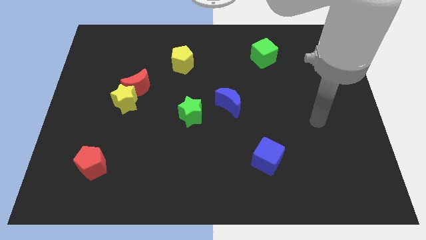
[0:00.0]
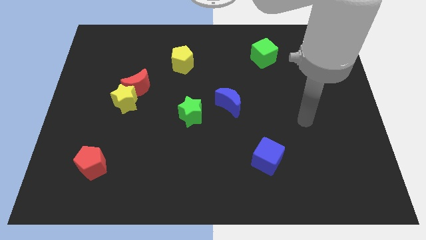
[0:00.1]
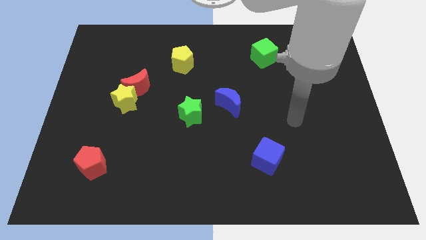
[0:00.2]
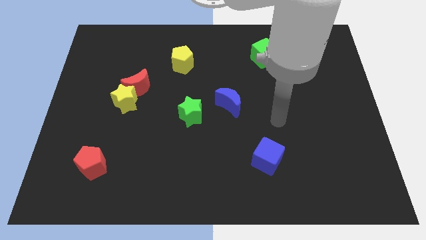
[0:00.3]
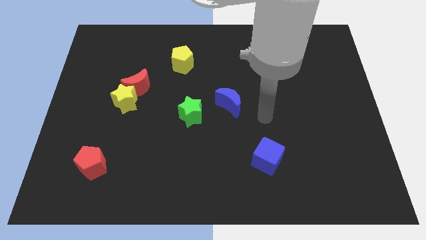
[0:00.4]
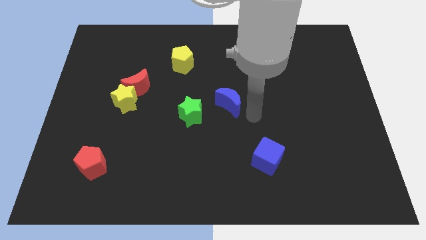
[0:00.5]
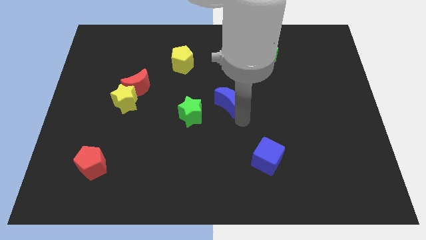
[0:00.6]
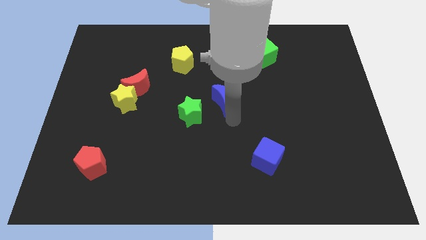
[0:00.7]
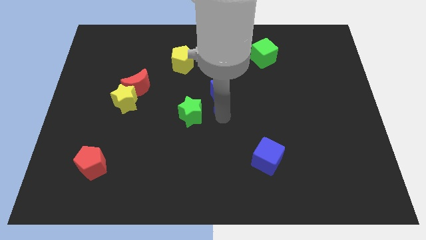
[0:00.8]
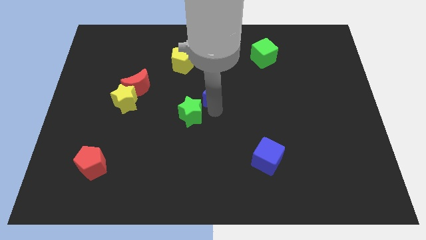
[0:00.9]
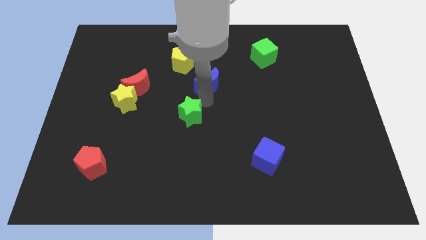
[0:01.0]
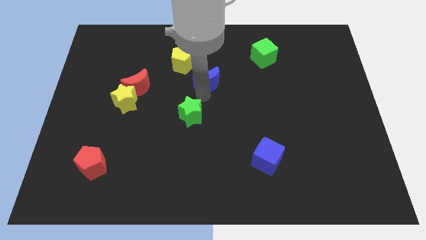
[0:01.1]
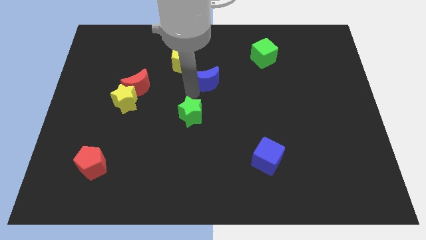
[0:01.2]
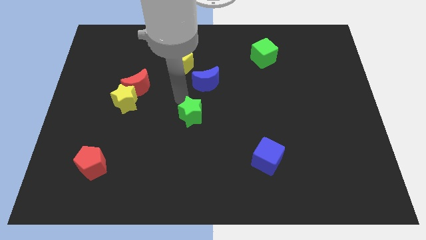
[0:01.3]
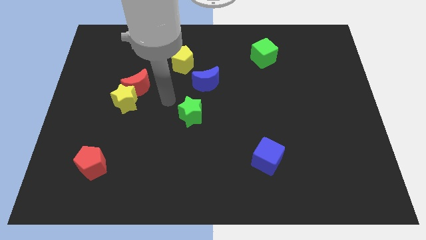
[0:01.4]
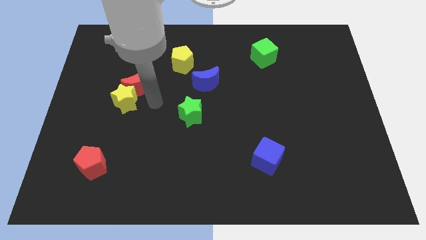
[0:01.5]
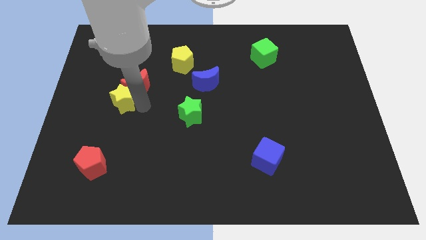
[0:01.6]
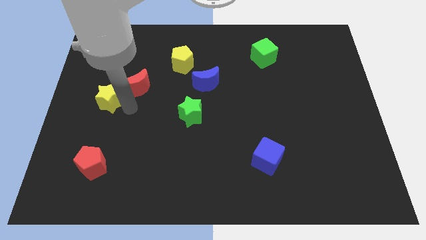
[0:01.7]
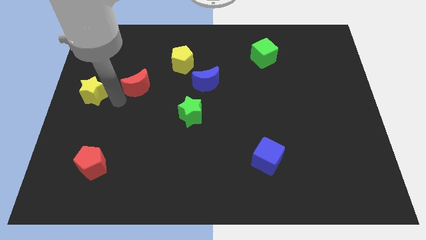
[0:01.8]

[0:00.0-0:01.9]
move the red moon away from the yellow star

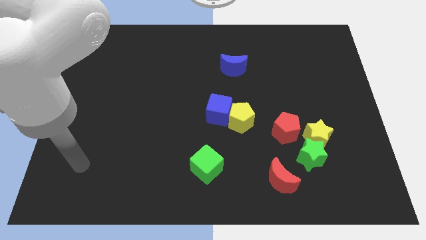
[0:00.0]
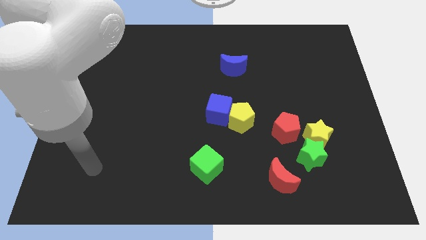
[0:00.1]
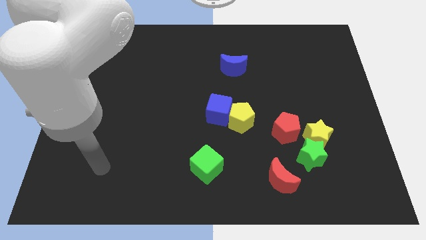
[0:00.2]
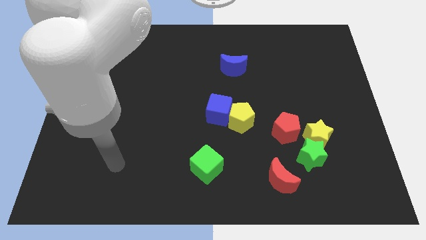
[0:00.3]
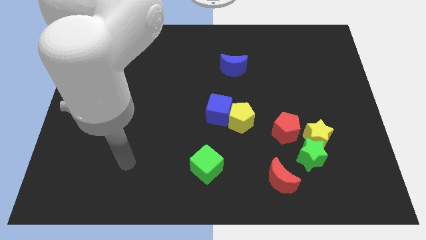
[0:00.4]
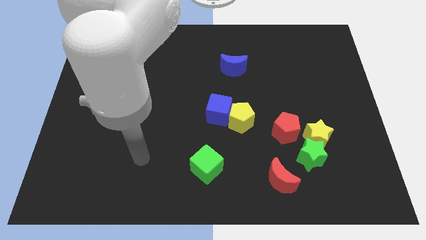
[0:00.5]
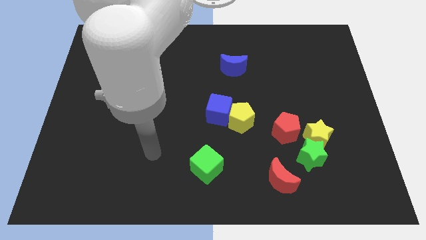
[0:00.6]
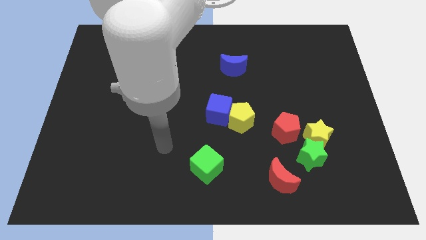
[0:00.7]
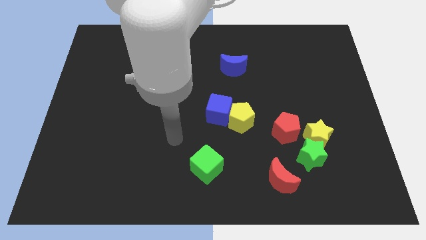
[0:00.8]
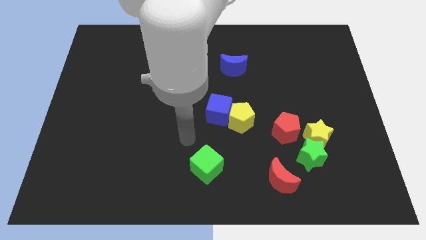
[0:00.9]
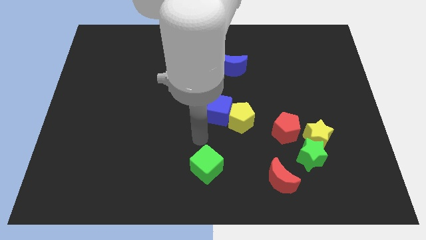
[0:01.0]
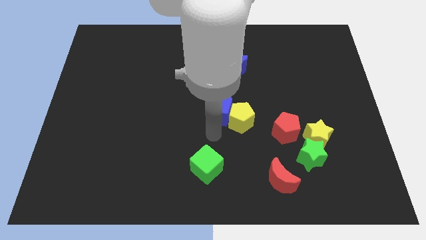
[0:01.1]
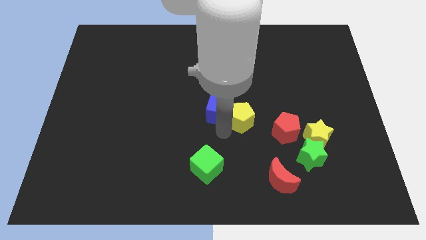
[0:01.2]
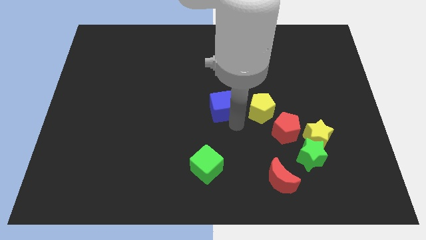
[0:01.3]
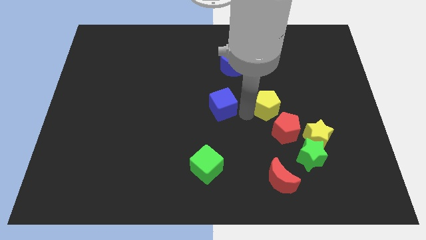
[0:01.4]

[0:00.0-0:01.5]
separate the blue cube from the yellow pentagon

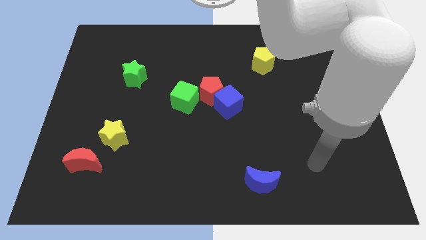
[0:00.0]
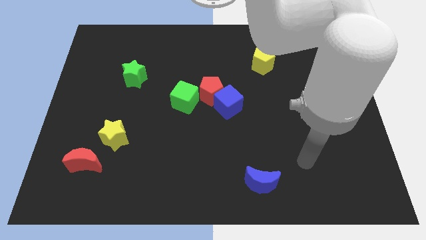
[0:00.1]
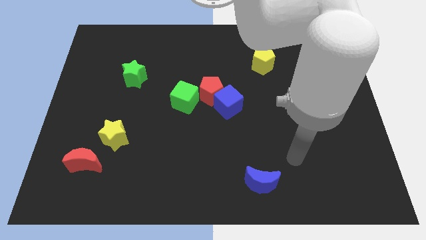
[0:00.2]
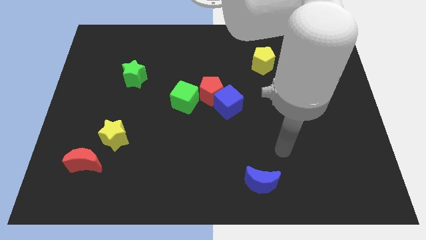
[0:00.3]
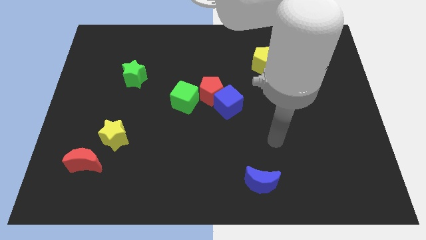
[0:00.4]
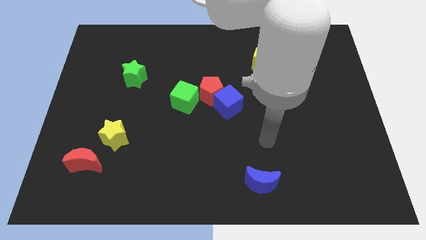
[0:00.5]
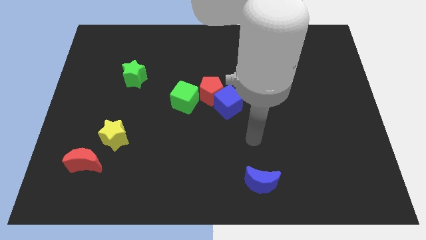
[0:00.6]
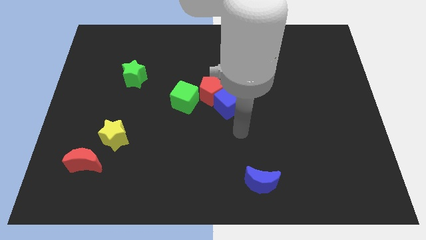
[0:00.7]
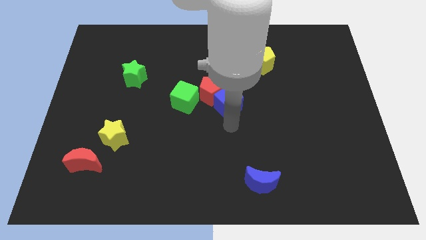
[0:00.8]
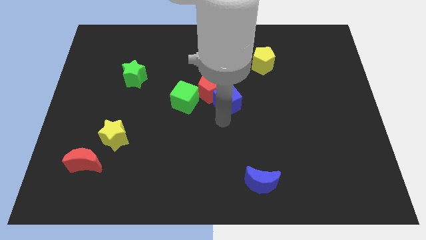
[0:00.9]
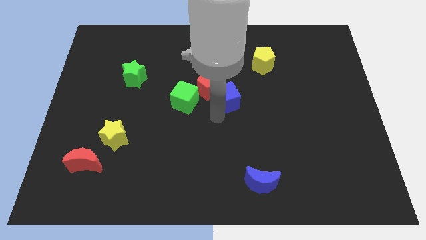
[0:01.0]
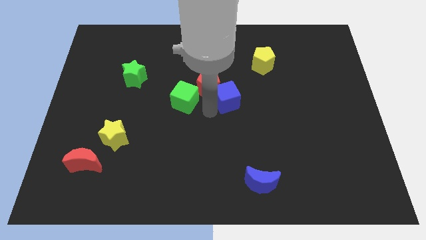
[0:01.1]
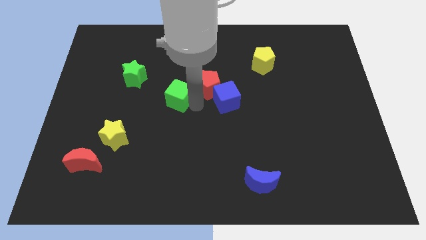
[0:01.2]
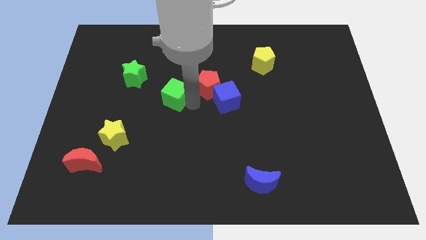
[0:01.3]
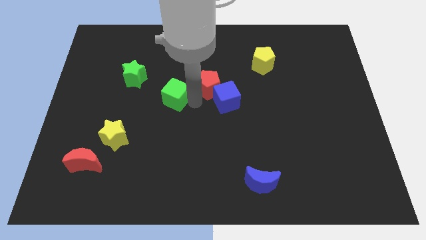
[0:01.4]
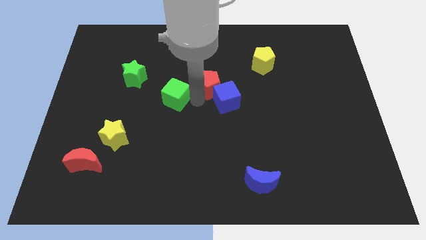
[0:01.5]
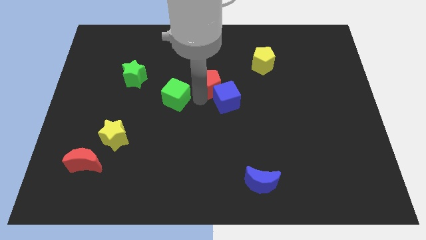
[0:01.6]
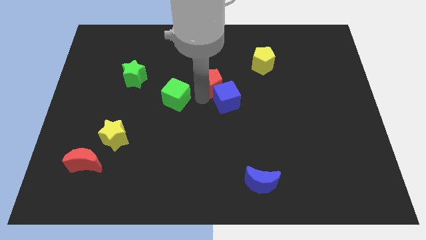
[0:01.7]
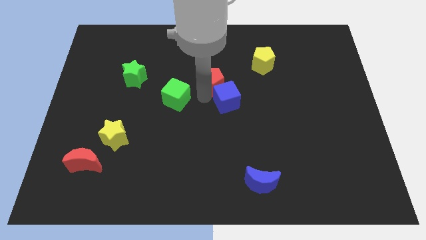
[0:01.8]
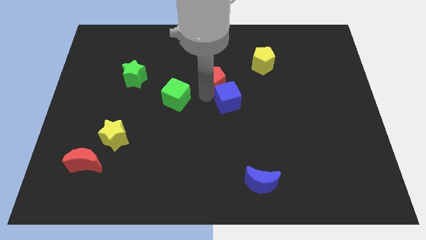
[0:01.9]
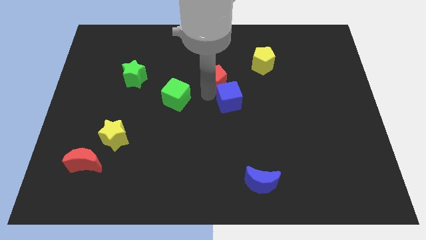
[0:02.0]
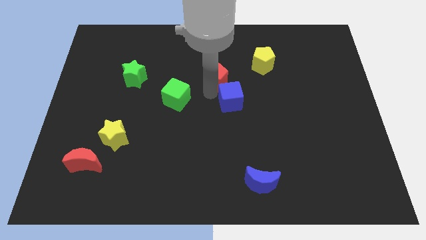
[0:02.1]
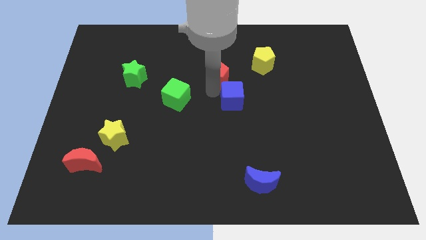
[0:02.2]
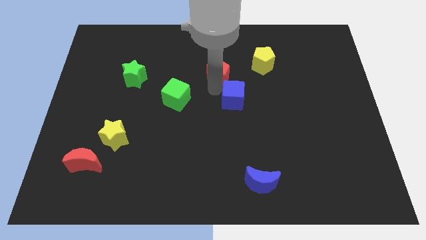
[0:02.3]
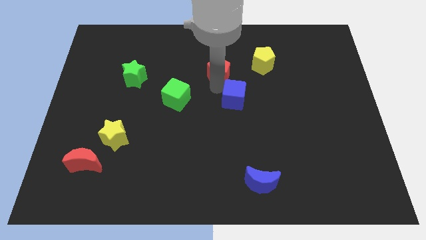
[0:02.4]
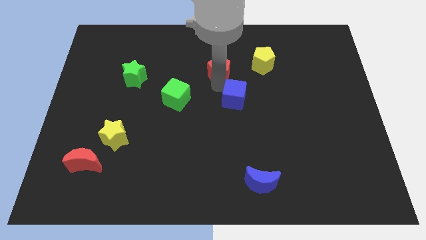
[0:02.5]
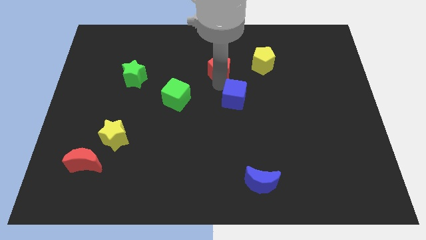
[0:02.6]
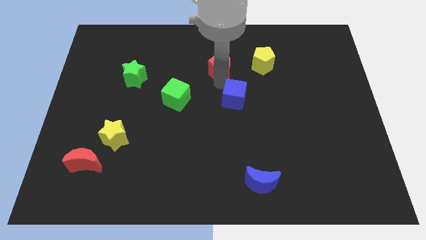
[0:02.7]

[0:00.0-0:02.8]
separate the red pentagon from the blue cube and green cube

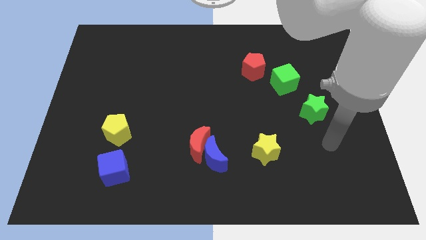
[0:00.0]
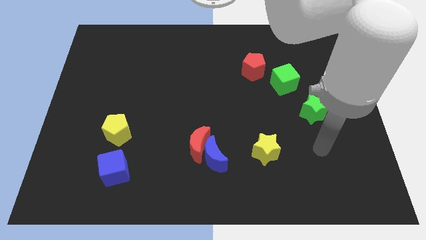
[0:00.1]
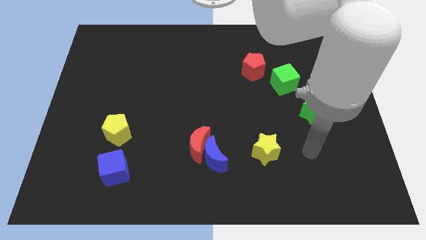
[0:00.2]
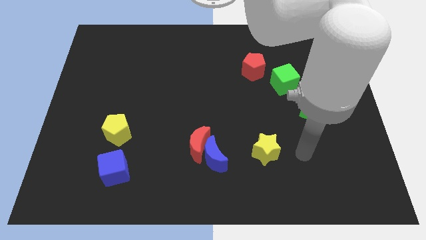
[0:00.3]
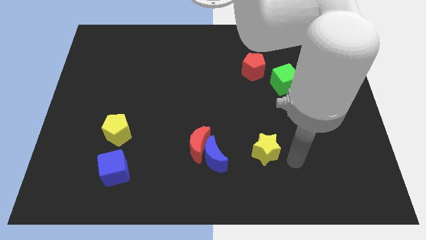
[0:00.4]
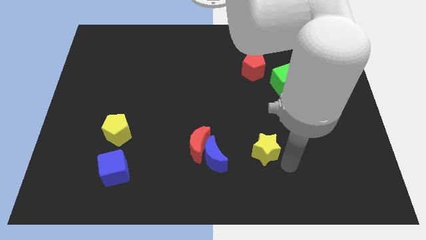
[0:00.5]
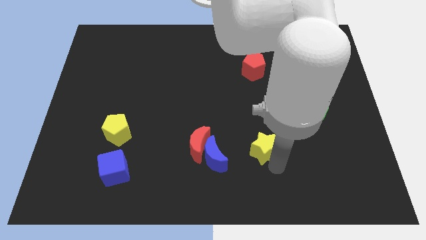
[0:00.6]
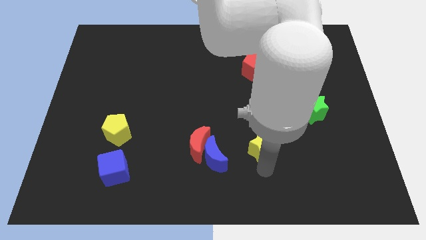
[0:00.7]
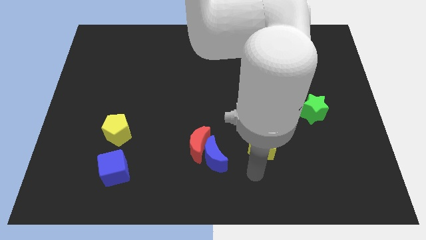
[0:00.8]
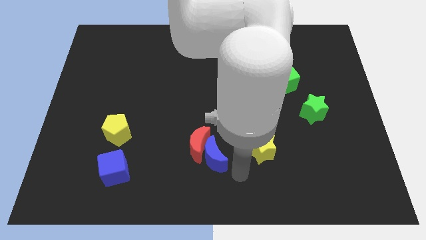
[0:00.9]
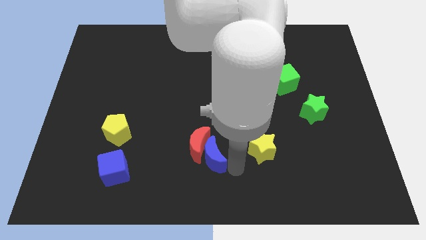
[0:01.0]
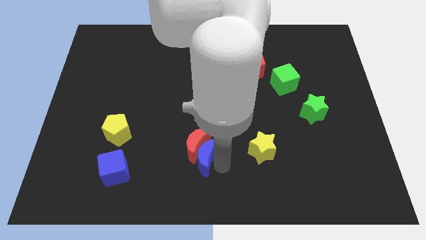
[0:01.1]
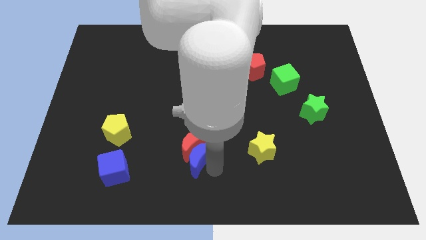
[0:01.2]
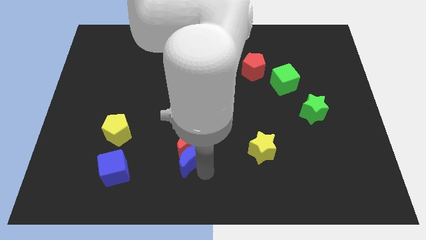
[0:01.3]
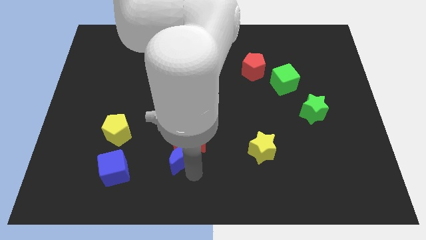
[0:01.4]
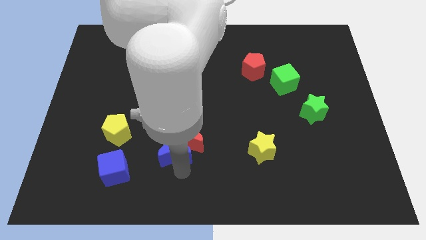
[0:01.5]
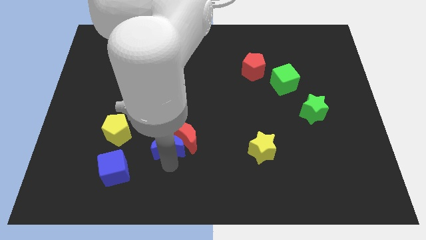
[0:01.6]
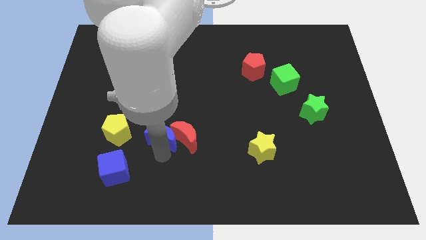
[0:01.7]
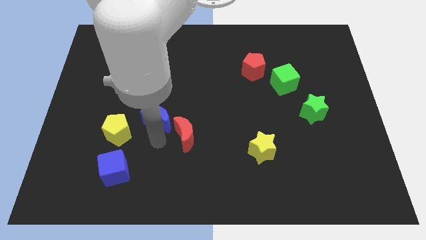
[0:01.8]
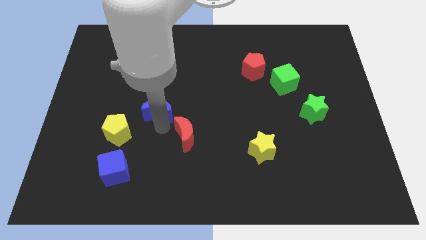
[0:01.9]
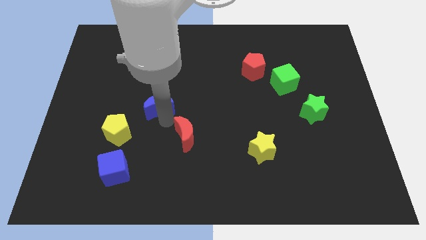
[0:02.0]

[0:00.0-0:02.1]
pull the red moon apart from the blue moon

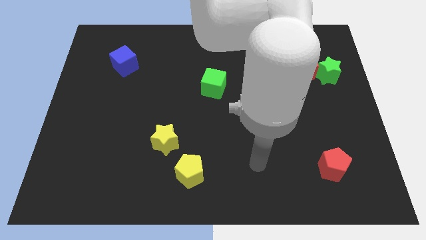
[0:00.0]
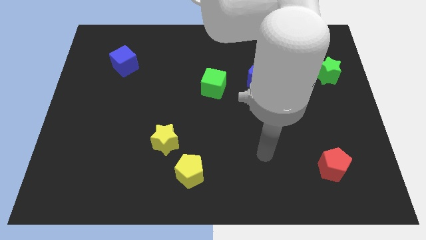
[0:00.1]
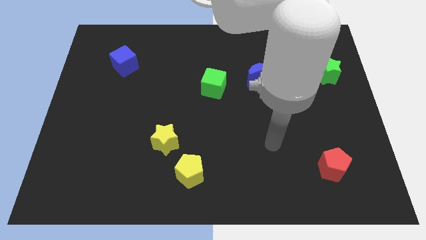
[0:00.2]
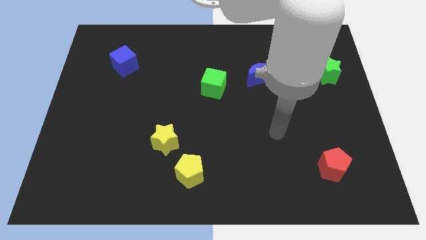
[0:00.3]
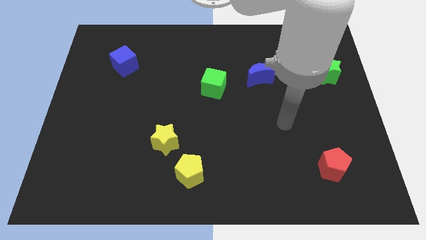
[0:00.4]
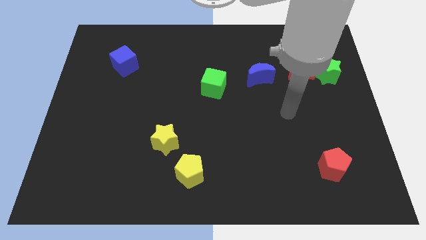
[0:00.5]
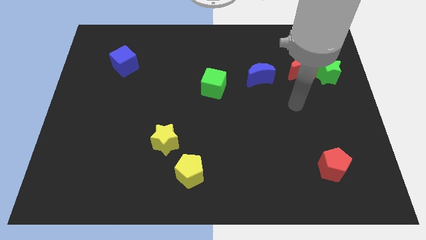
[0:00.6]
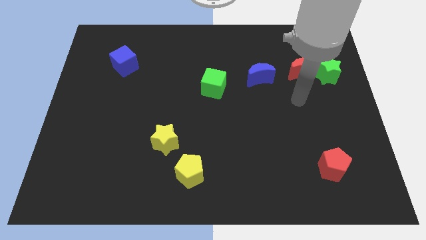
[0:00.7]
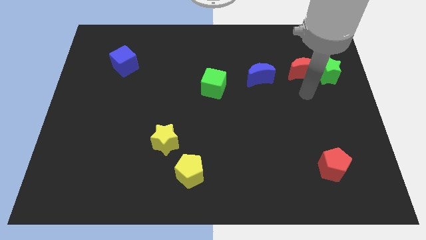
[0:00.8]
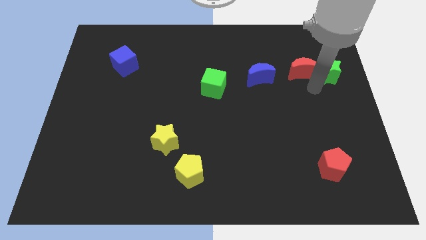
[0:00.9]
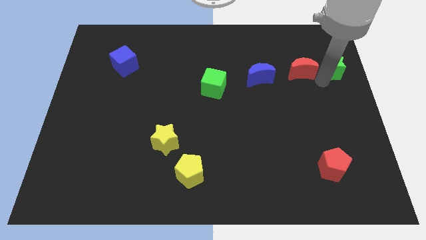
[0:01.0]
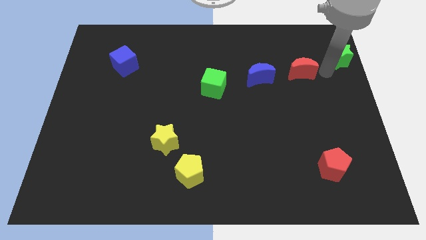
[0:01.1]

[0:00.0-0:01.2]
separate the red moon from the green star

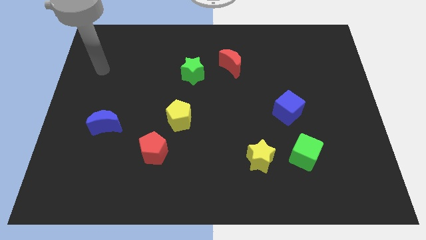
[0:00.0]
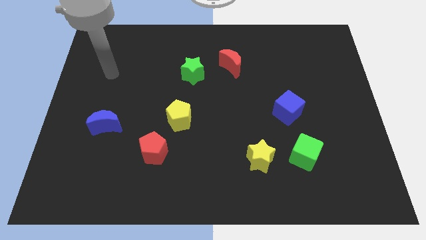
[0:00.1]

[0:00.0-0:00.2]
pull the green cube apart from the yellow star
